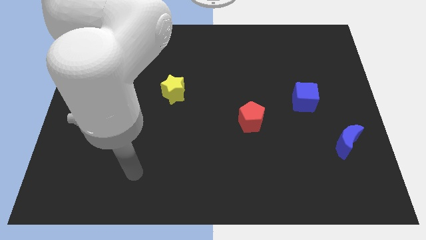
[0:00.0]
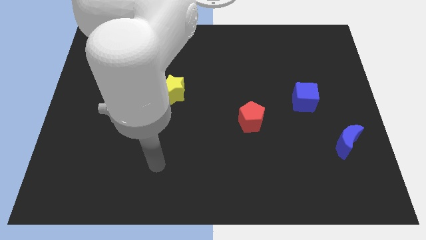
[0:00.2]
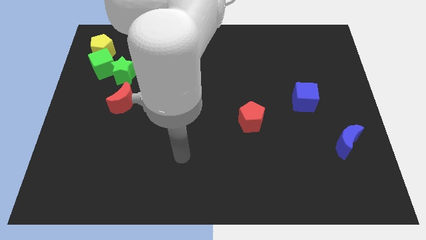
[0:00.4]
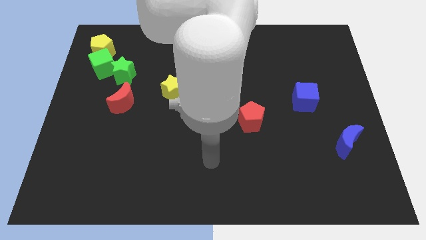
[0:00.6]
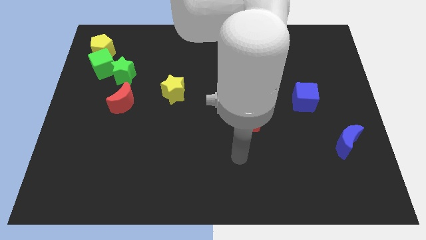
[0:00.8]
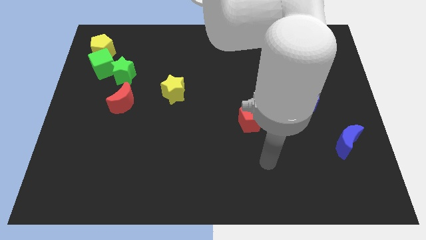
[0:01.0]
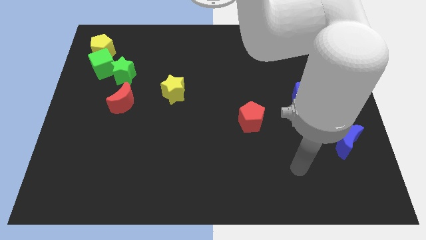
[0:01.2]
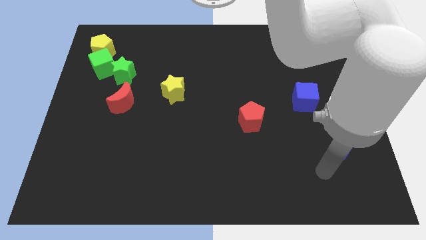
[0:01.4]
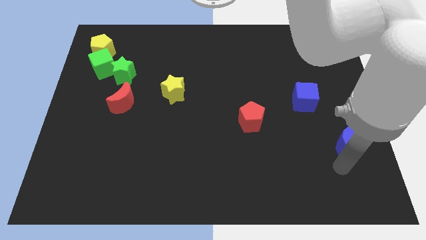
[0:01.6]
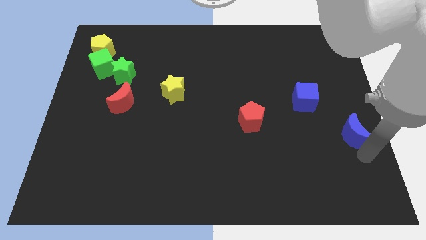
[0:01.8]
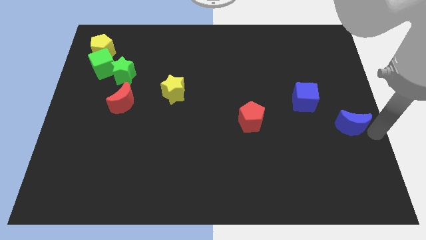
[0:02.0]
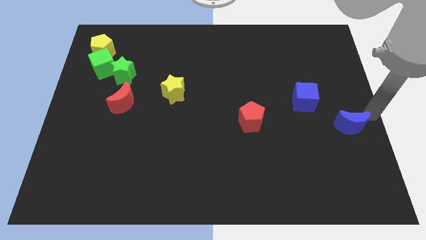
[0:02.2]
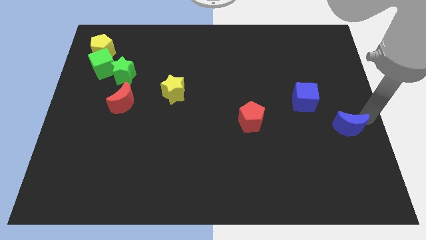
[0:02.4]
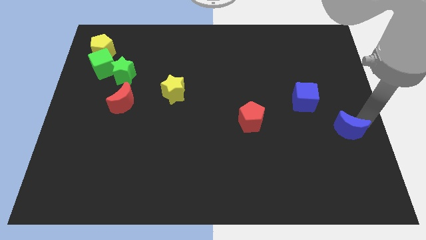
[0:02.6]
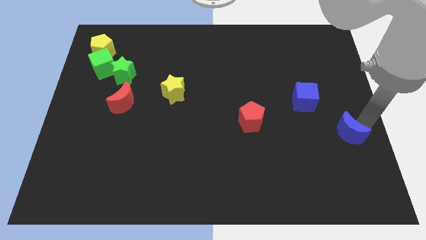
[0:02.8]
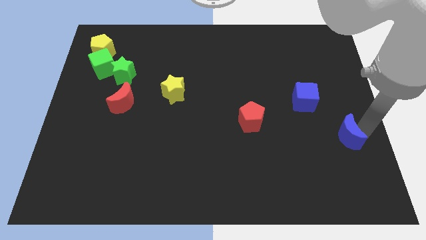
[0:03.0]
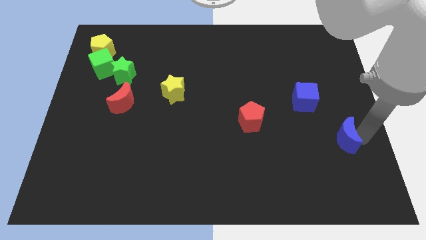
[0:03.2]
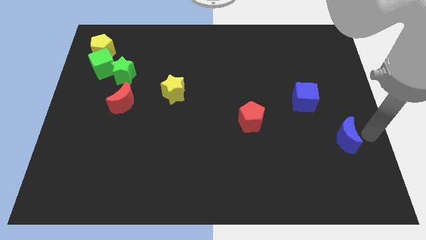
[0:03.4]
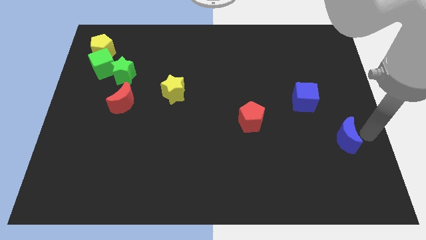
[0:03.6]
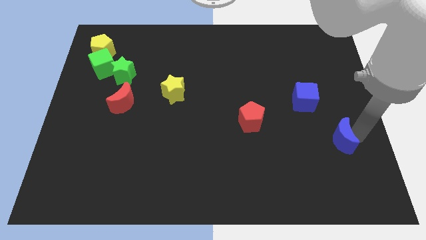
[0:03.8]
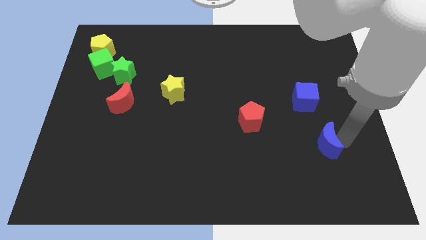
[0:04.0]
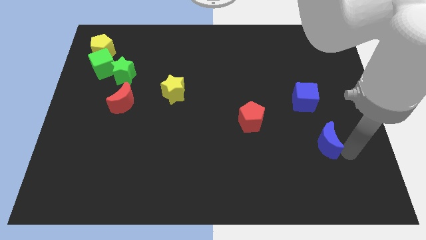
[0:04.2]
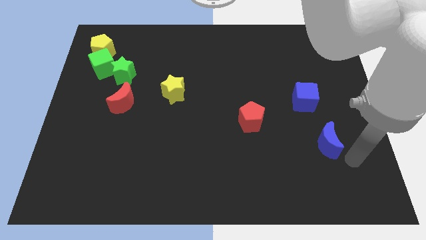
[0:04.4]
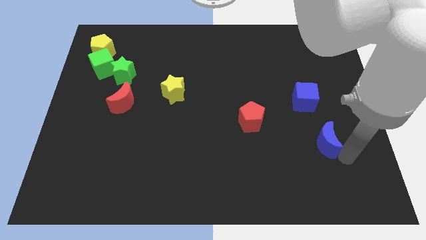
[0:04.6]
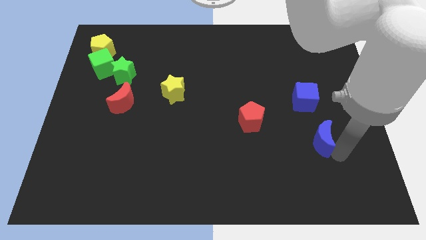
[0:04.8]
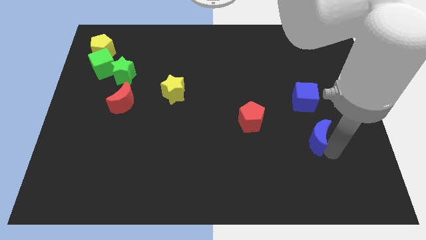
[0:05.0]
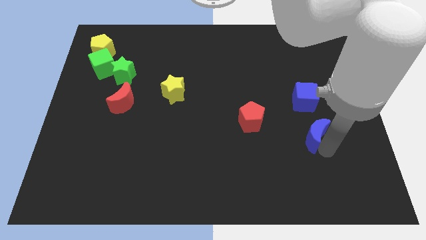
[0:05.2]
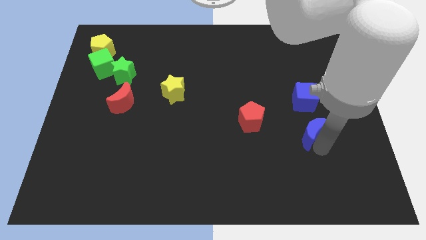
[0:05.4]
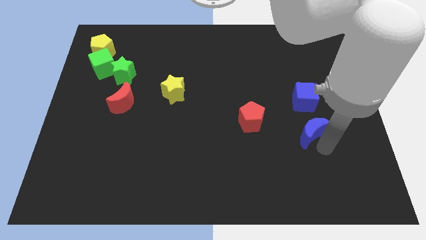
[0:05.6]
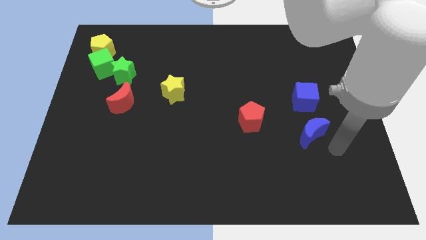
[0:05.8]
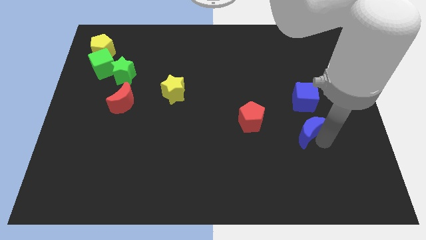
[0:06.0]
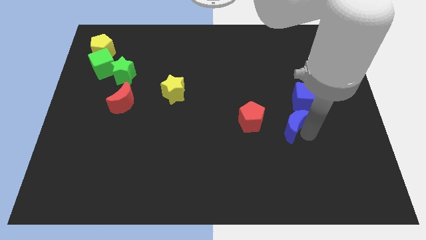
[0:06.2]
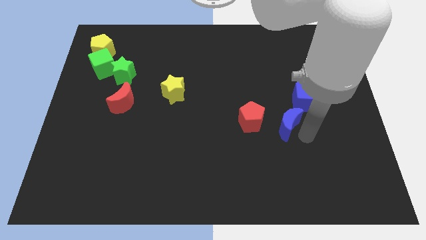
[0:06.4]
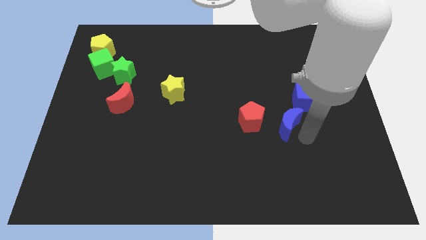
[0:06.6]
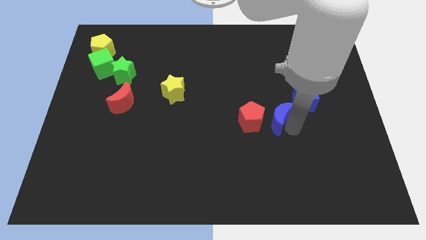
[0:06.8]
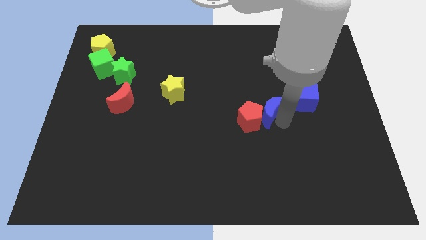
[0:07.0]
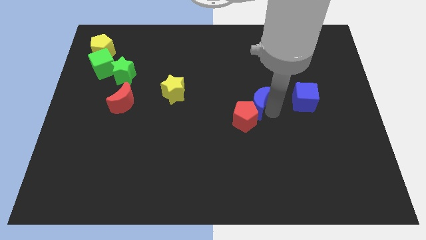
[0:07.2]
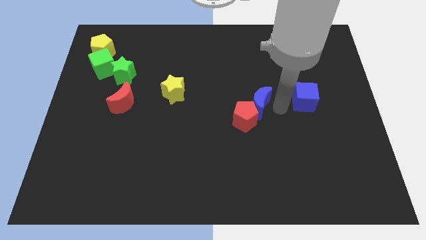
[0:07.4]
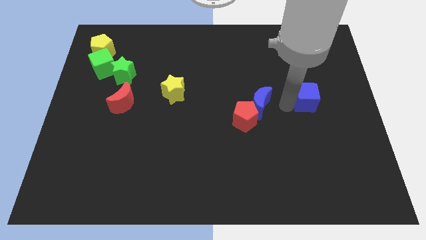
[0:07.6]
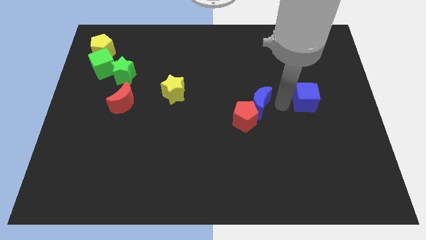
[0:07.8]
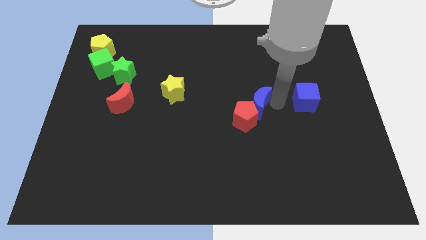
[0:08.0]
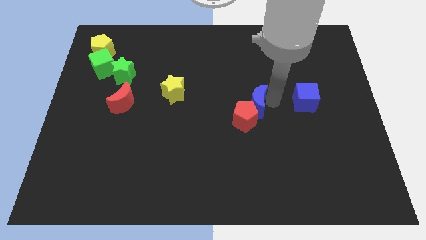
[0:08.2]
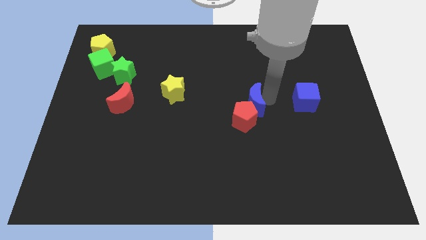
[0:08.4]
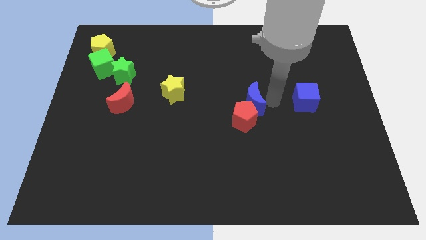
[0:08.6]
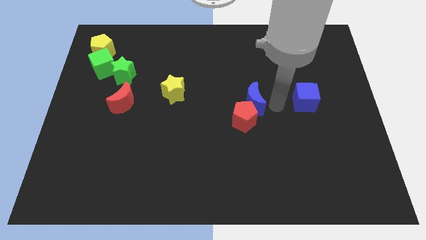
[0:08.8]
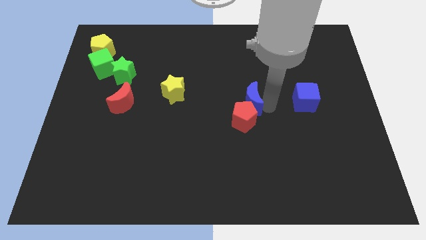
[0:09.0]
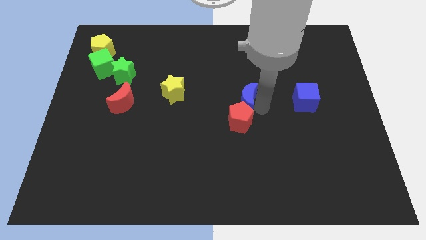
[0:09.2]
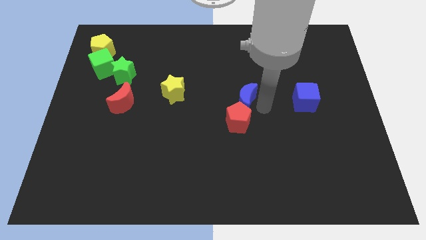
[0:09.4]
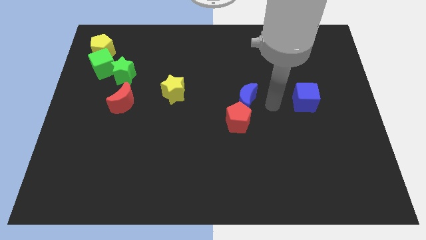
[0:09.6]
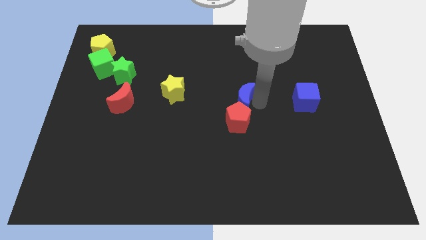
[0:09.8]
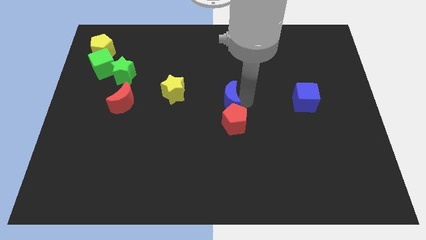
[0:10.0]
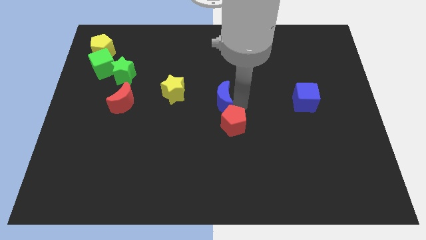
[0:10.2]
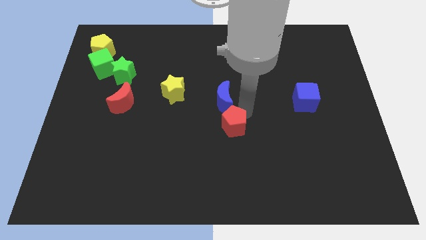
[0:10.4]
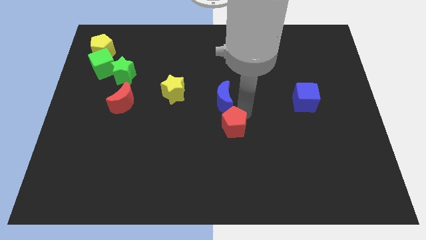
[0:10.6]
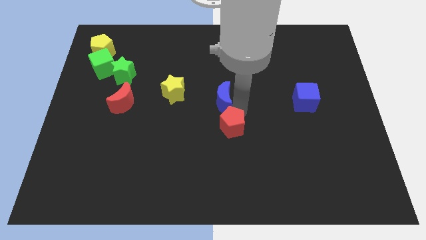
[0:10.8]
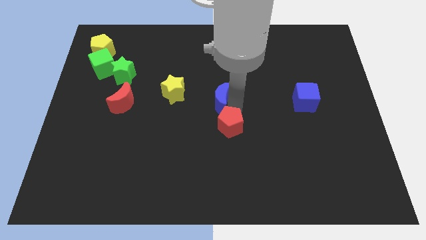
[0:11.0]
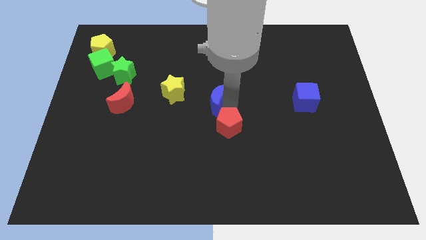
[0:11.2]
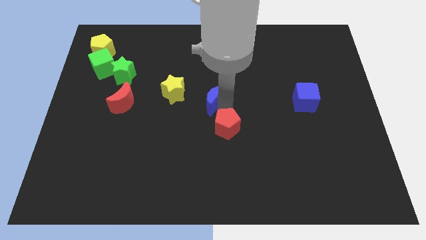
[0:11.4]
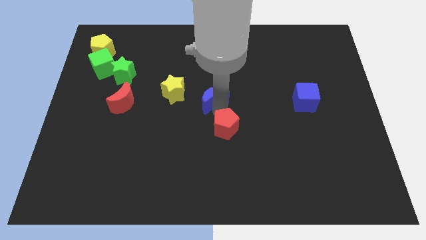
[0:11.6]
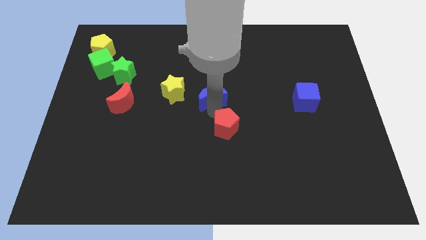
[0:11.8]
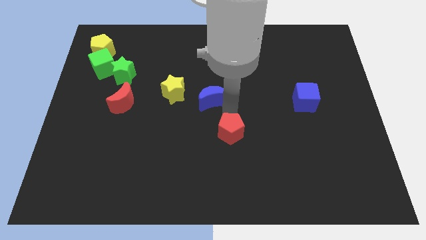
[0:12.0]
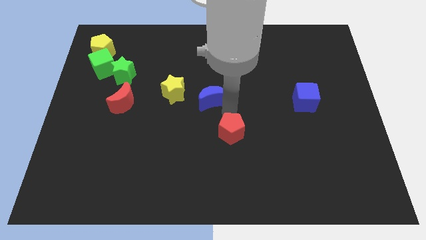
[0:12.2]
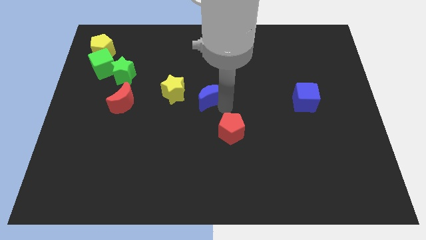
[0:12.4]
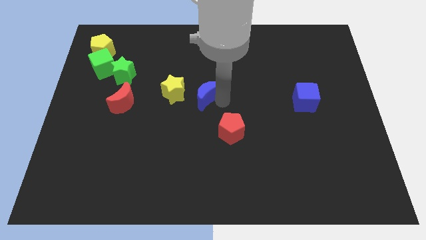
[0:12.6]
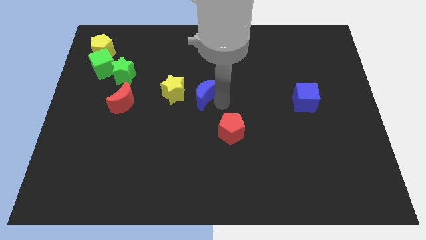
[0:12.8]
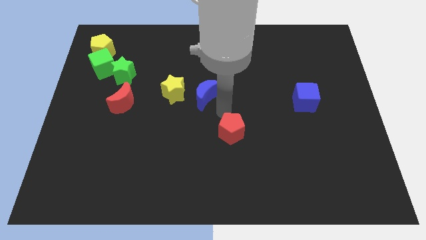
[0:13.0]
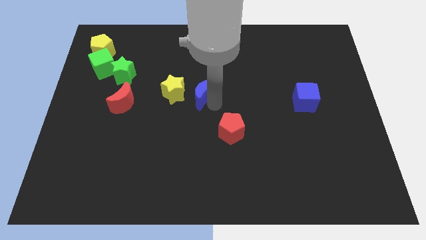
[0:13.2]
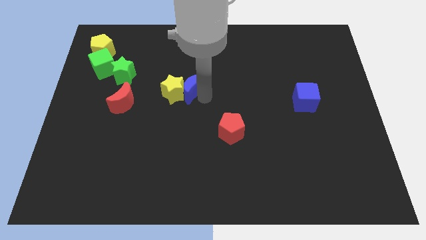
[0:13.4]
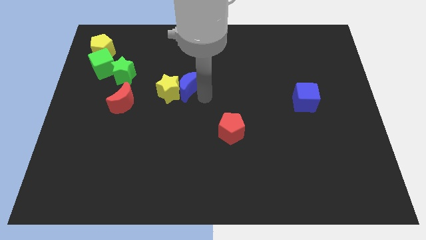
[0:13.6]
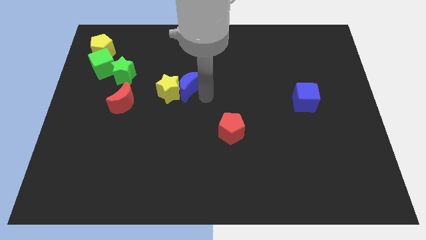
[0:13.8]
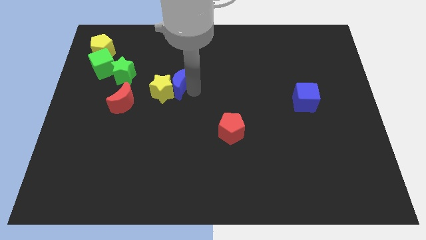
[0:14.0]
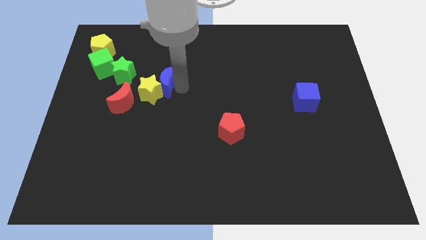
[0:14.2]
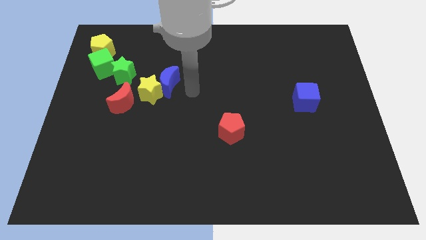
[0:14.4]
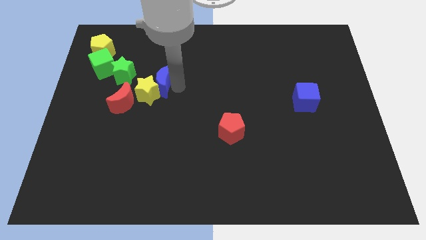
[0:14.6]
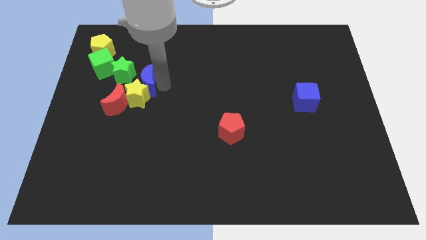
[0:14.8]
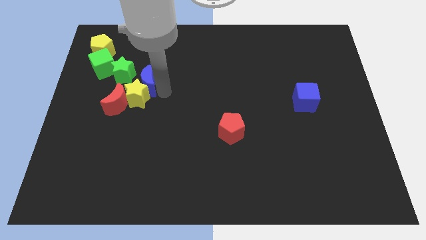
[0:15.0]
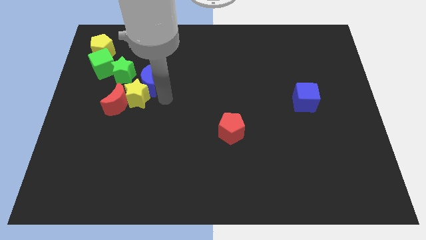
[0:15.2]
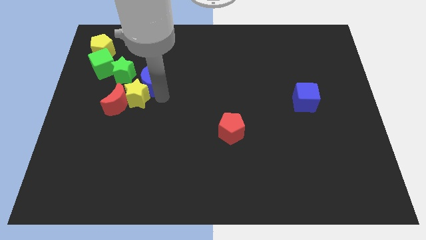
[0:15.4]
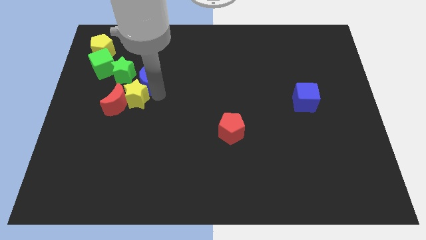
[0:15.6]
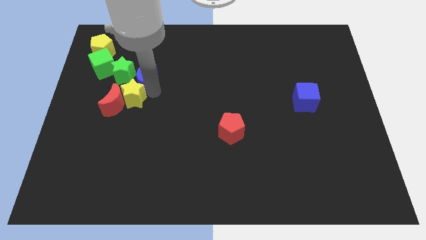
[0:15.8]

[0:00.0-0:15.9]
move the blue moon close to the green star
